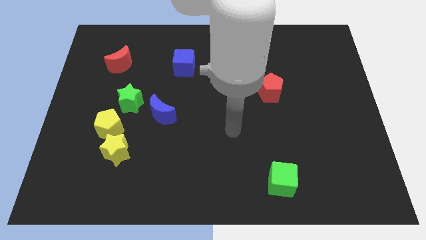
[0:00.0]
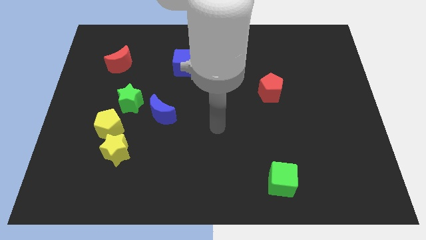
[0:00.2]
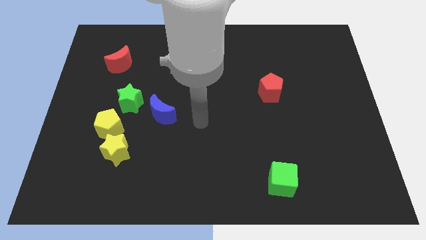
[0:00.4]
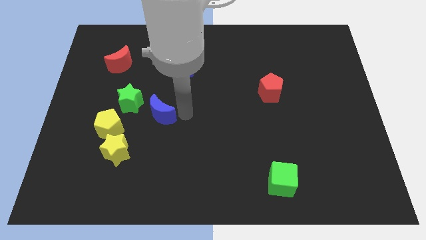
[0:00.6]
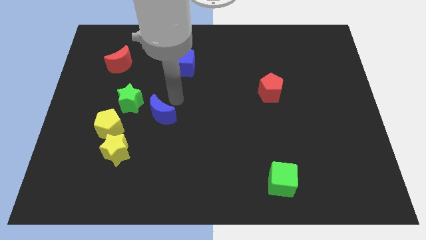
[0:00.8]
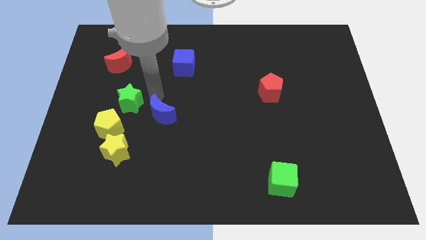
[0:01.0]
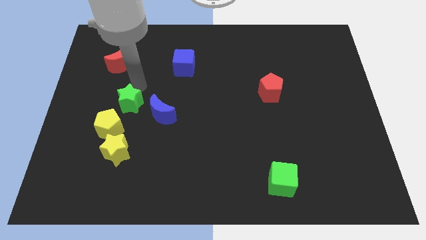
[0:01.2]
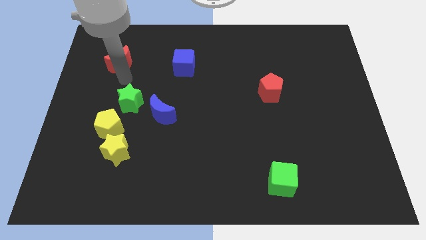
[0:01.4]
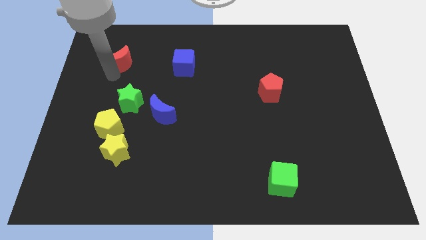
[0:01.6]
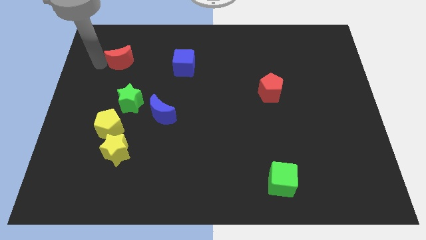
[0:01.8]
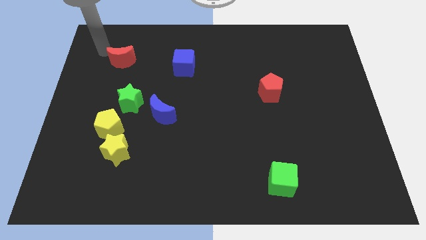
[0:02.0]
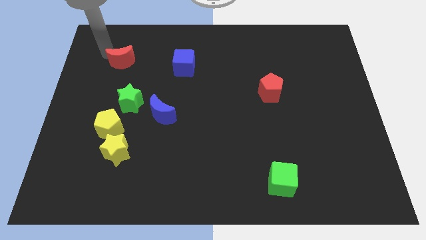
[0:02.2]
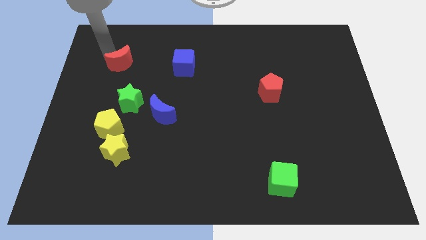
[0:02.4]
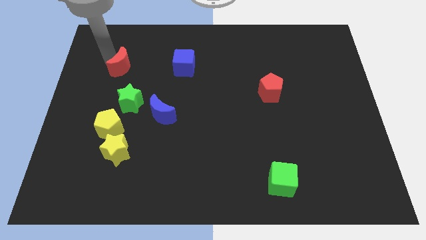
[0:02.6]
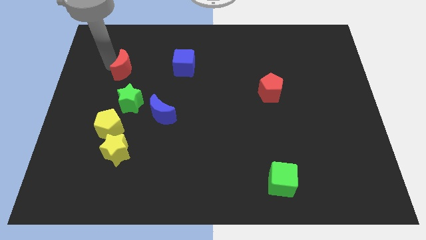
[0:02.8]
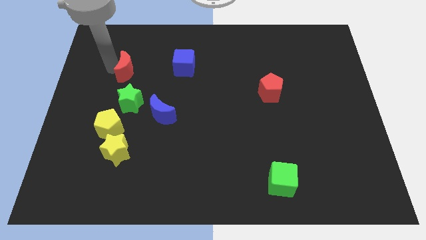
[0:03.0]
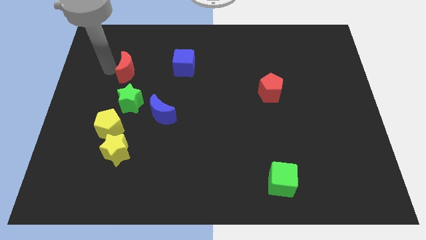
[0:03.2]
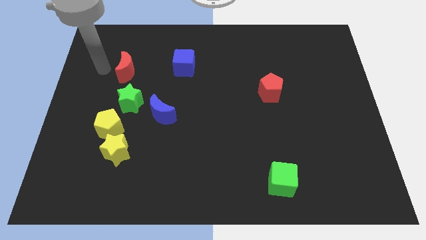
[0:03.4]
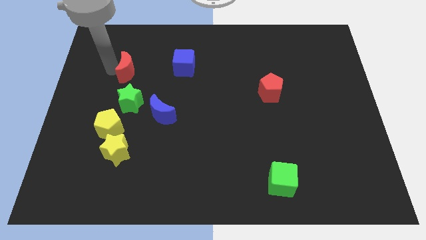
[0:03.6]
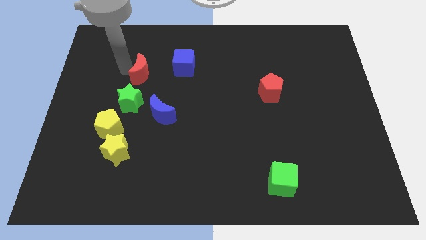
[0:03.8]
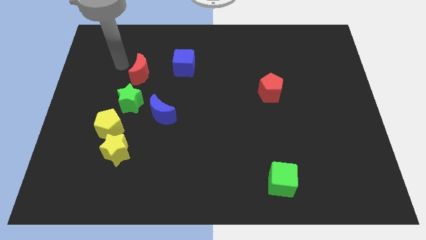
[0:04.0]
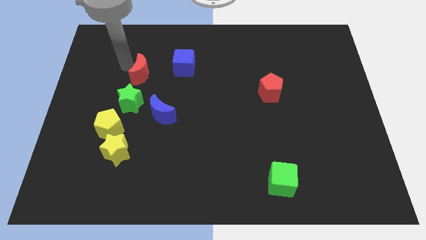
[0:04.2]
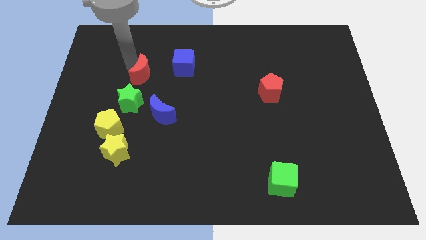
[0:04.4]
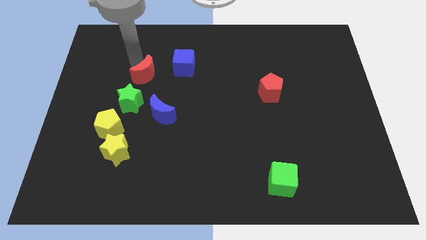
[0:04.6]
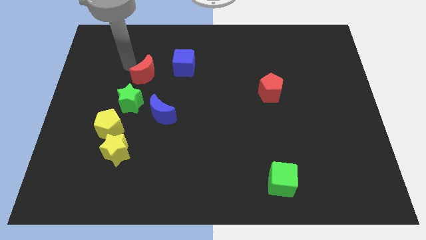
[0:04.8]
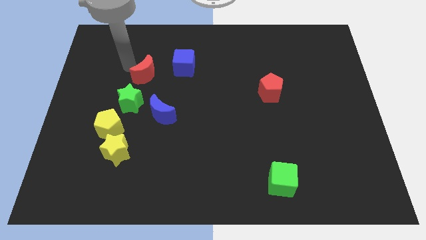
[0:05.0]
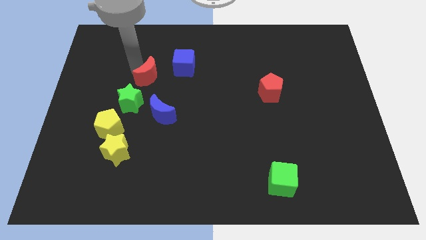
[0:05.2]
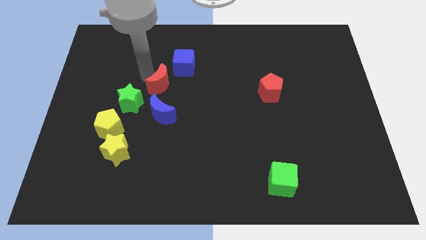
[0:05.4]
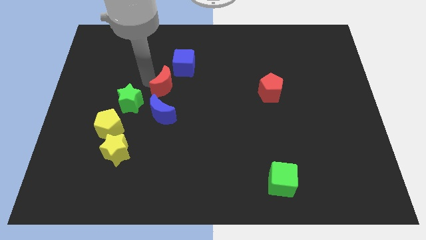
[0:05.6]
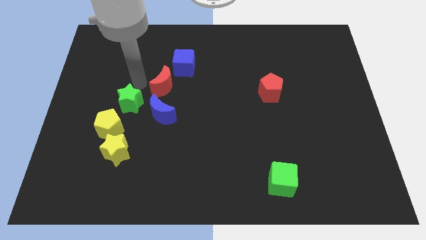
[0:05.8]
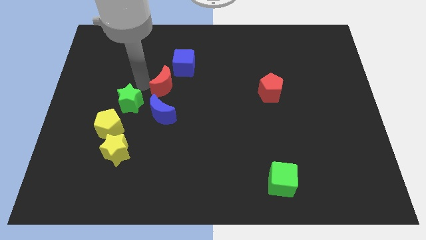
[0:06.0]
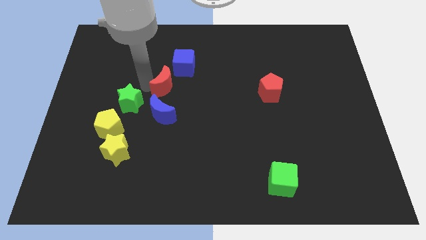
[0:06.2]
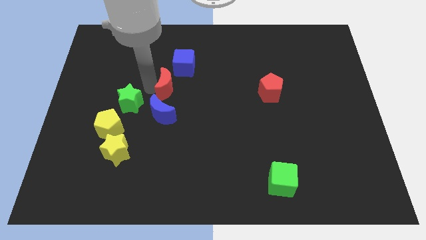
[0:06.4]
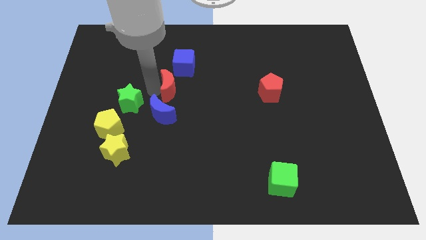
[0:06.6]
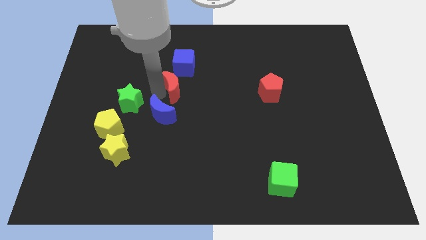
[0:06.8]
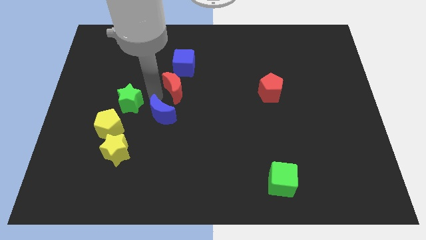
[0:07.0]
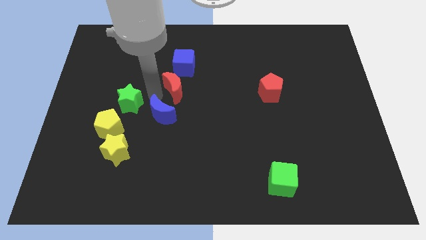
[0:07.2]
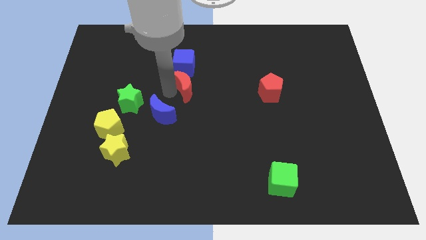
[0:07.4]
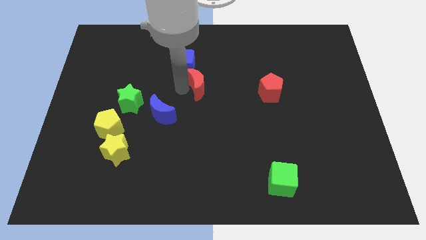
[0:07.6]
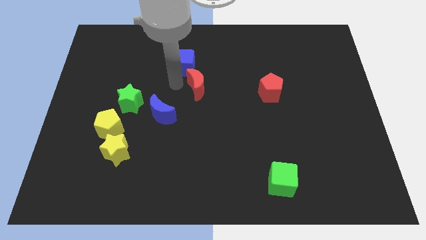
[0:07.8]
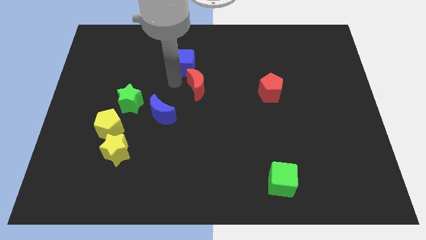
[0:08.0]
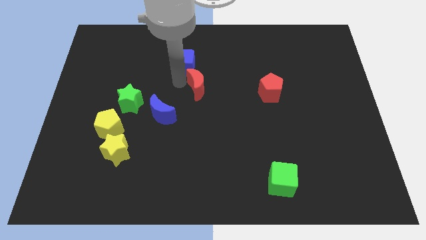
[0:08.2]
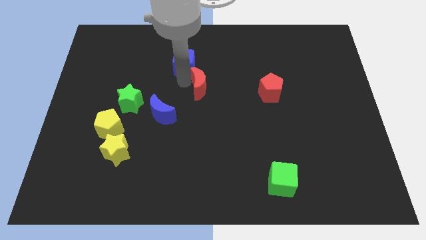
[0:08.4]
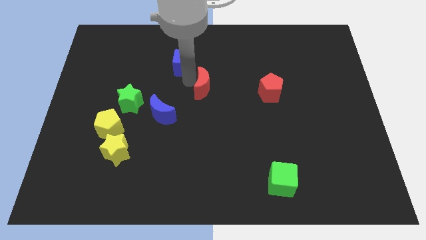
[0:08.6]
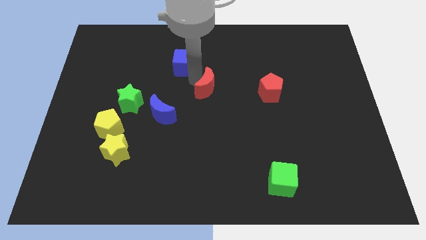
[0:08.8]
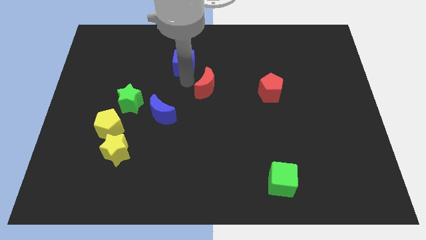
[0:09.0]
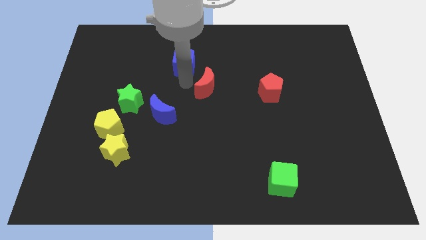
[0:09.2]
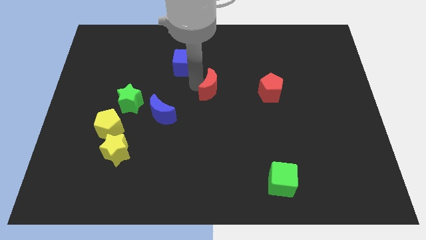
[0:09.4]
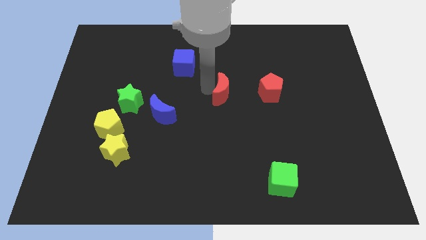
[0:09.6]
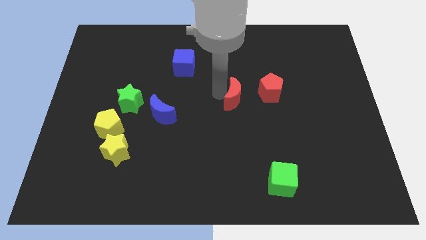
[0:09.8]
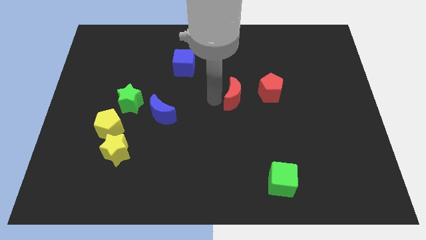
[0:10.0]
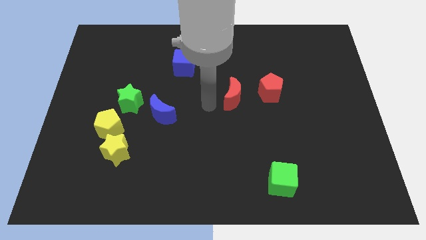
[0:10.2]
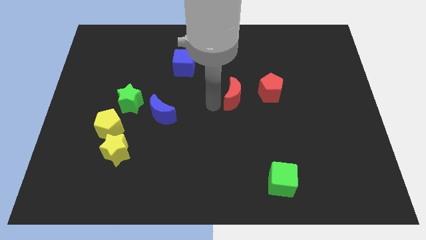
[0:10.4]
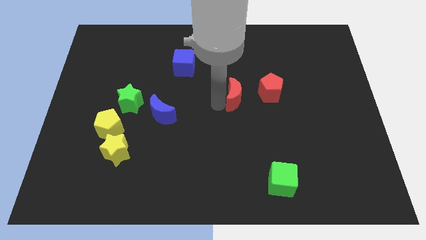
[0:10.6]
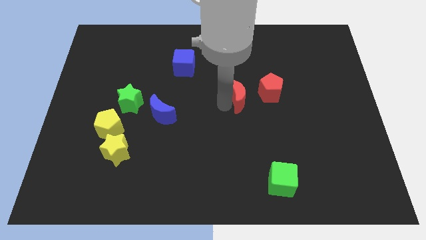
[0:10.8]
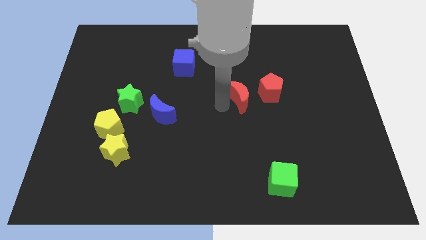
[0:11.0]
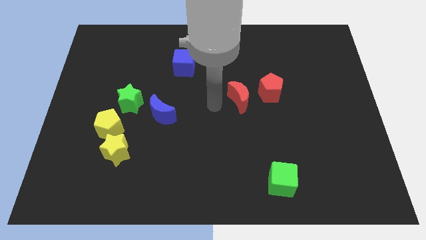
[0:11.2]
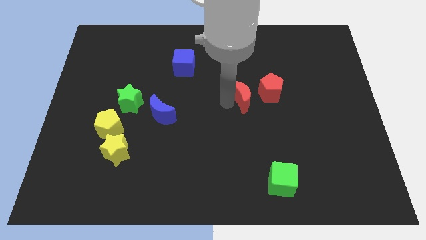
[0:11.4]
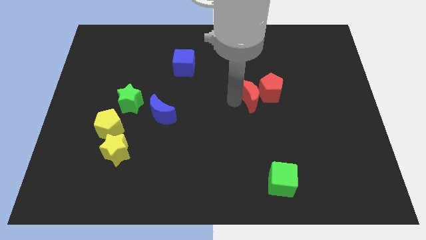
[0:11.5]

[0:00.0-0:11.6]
move the red moon to the red pentagon

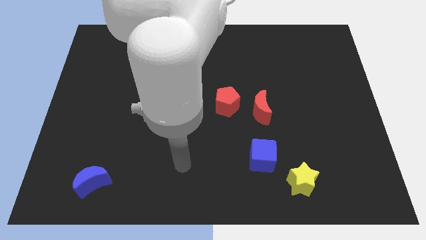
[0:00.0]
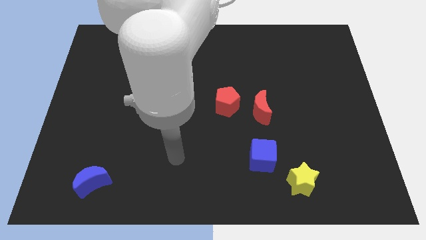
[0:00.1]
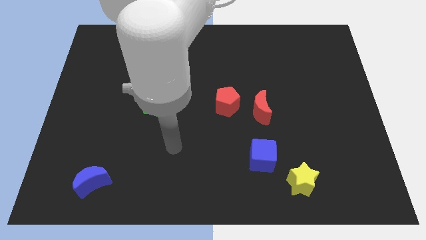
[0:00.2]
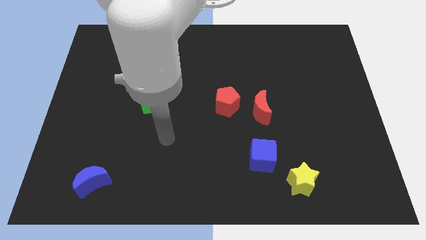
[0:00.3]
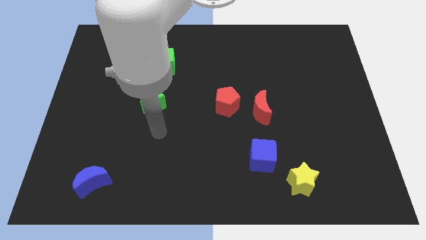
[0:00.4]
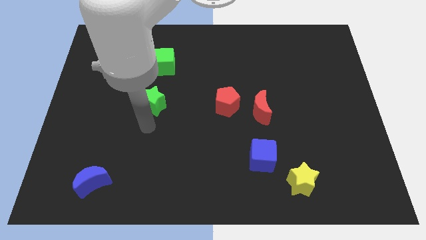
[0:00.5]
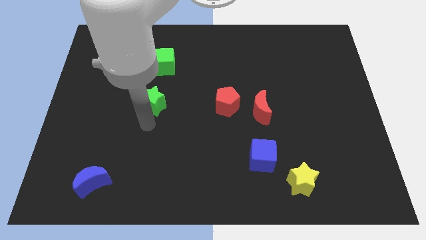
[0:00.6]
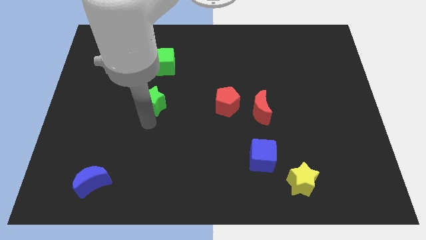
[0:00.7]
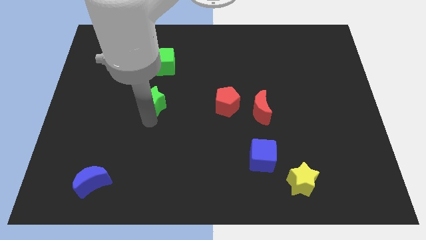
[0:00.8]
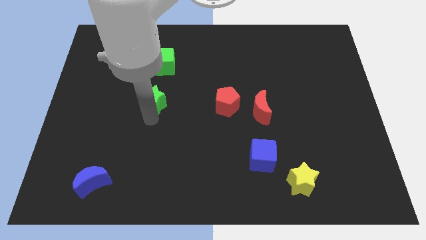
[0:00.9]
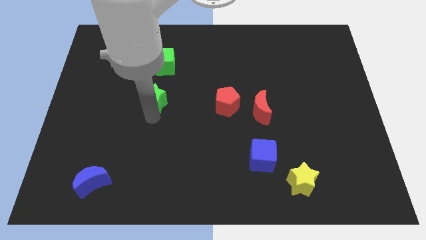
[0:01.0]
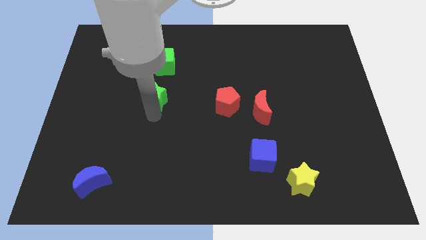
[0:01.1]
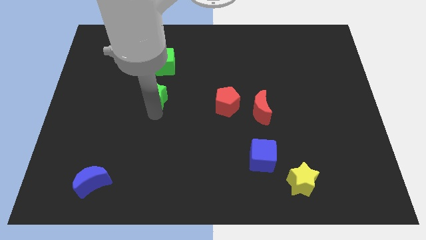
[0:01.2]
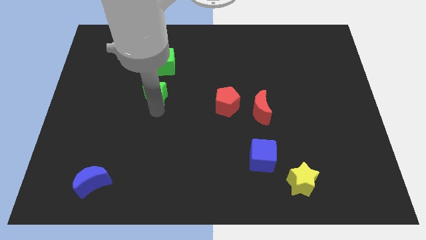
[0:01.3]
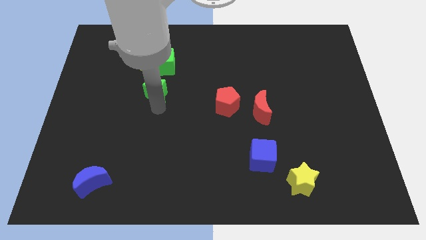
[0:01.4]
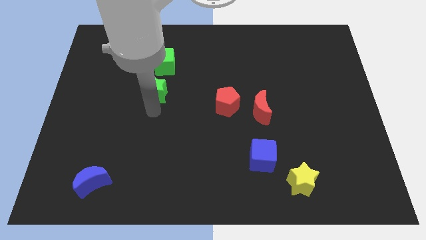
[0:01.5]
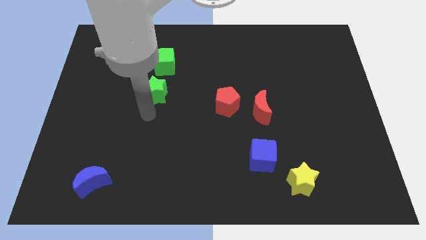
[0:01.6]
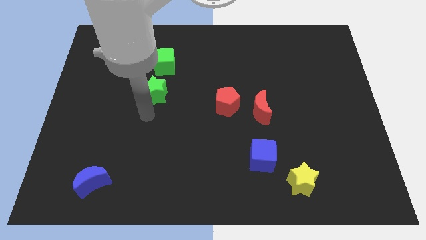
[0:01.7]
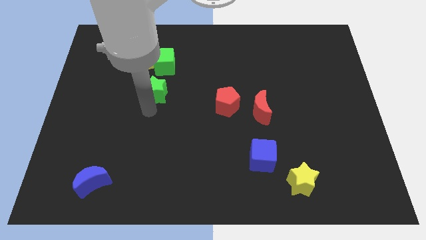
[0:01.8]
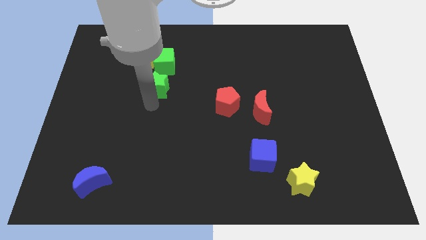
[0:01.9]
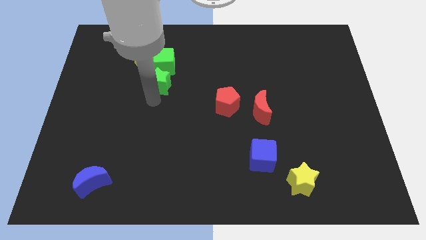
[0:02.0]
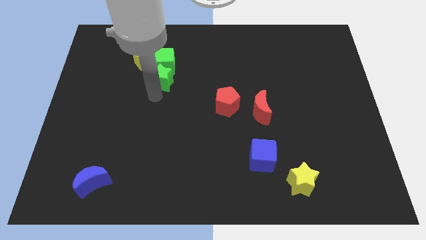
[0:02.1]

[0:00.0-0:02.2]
put the green star to the green cube
